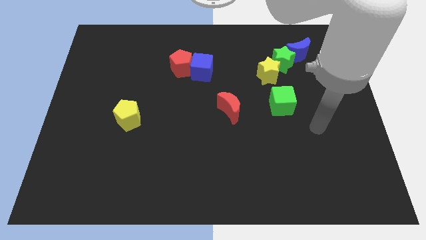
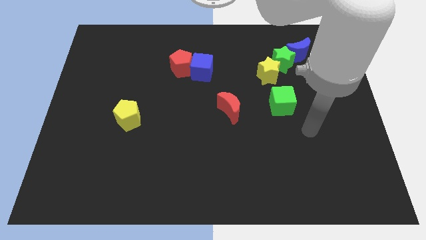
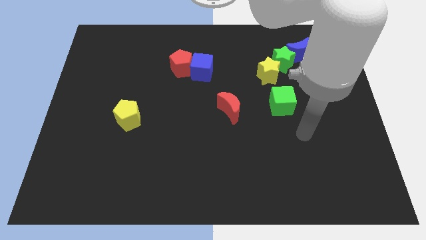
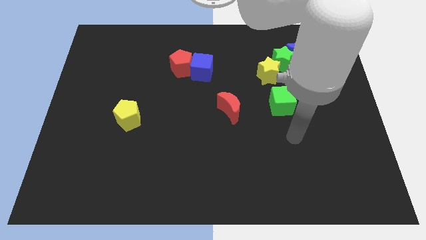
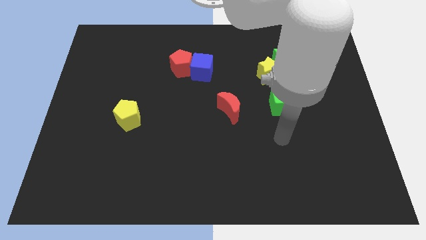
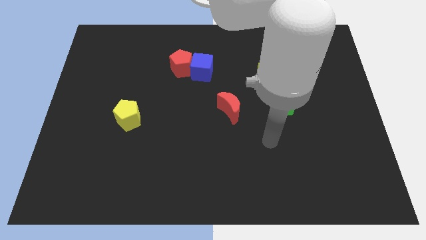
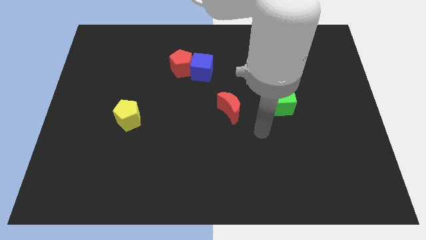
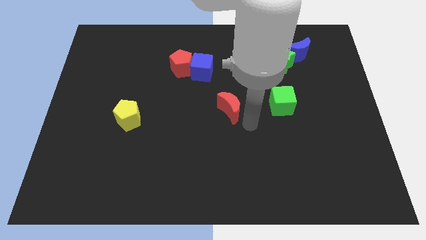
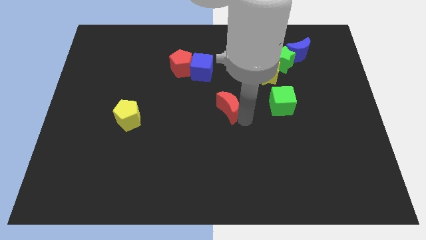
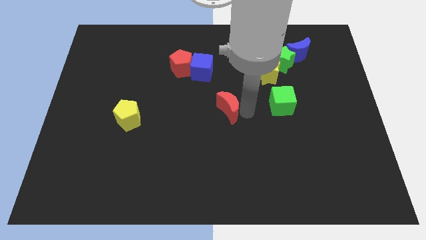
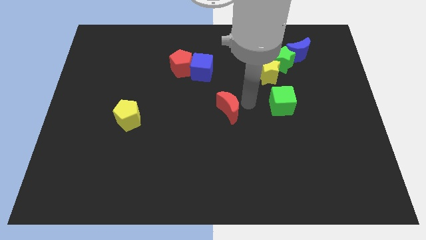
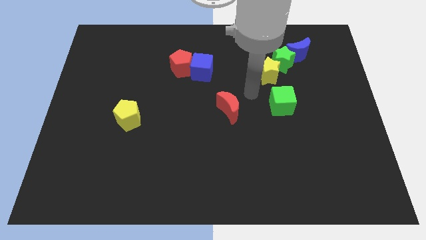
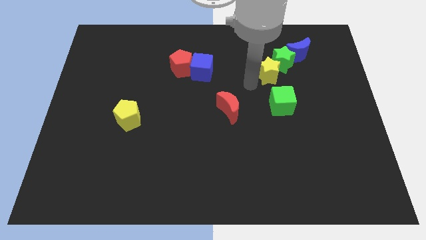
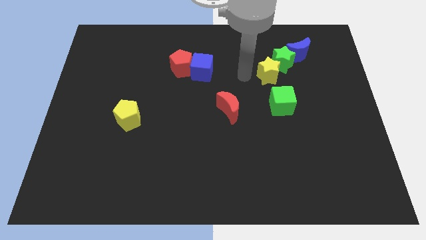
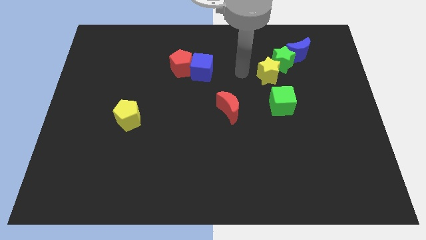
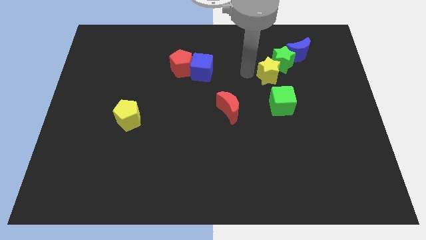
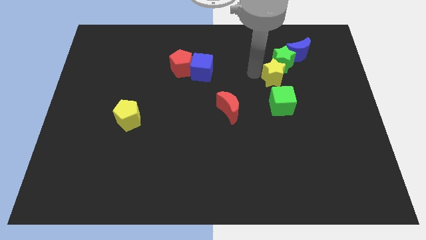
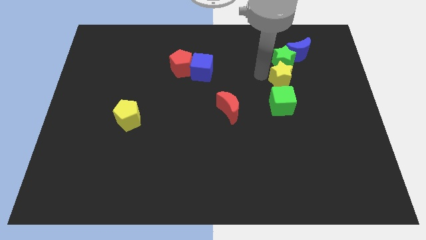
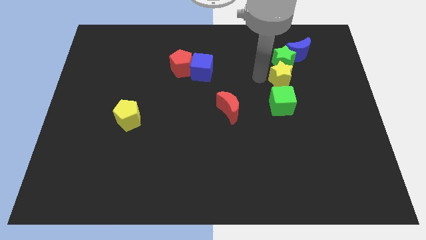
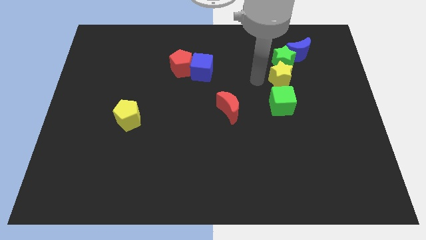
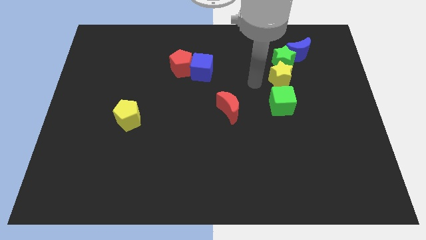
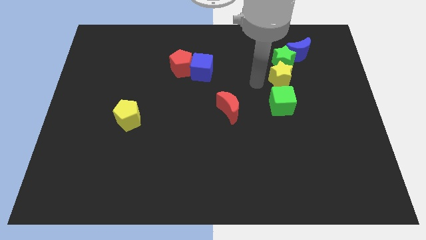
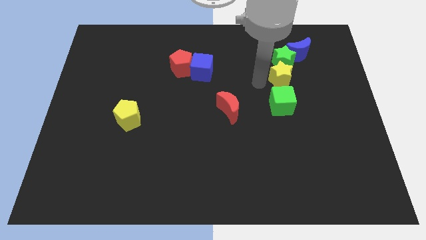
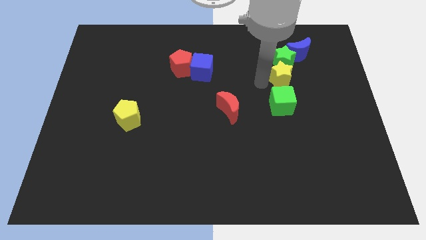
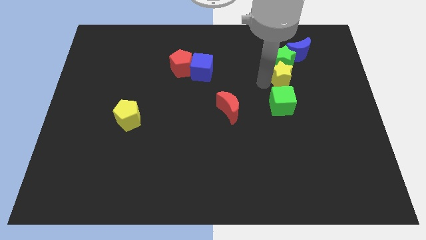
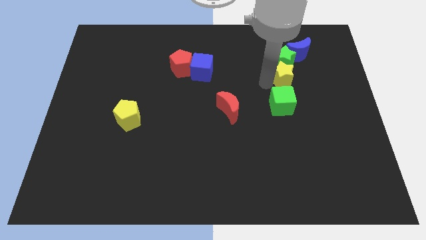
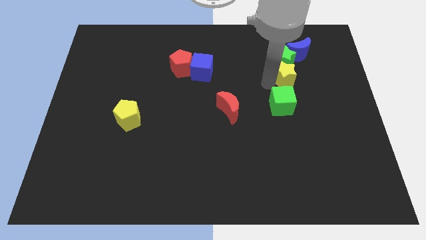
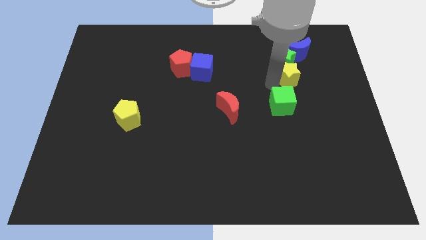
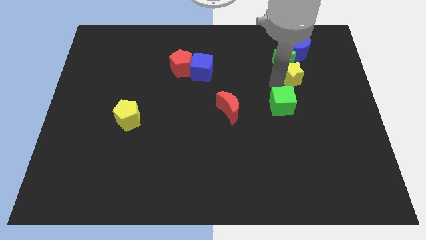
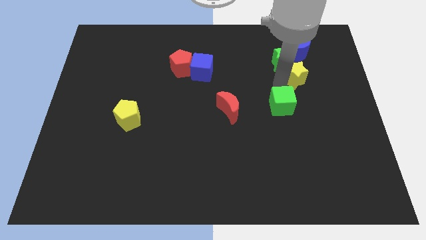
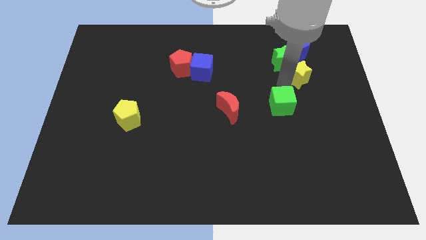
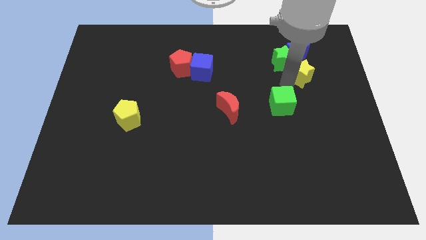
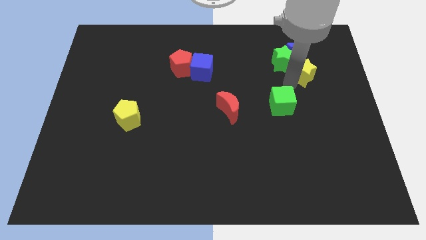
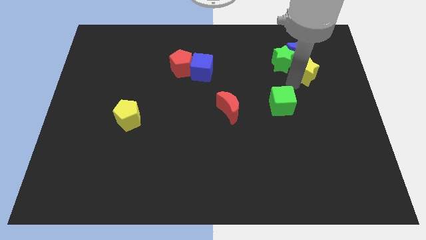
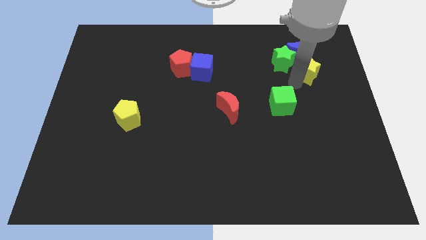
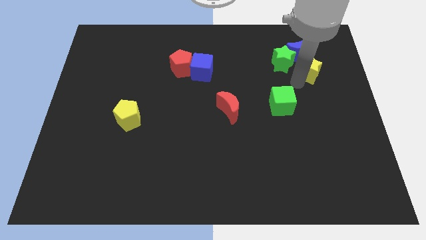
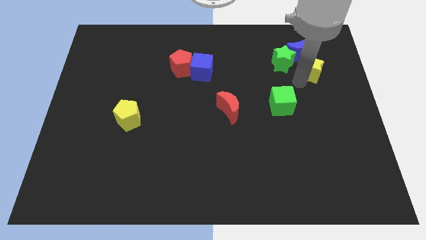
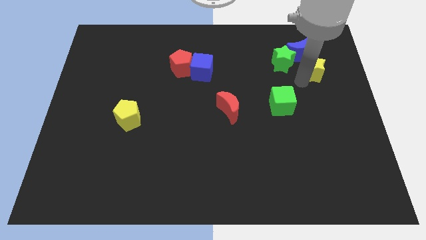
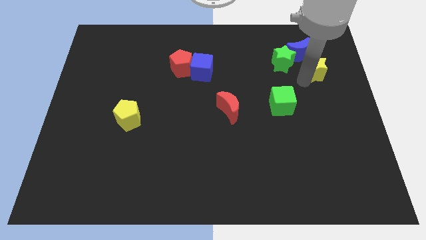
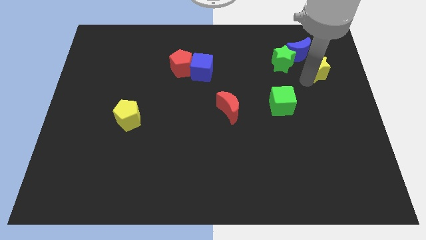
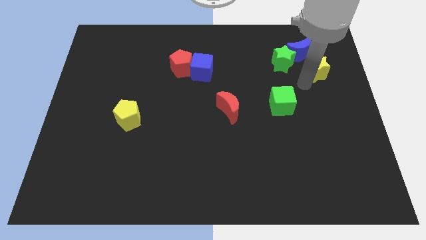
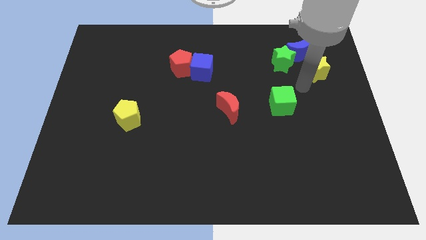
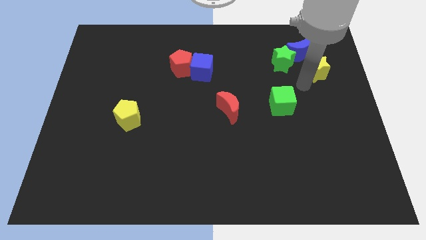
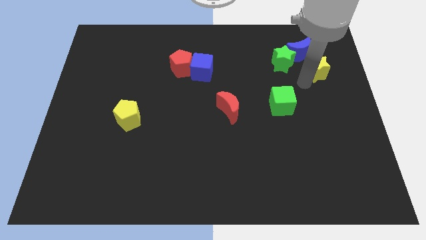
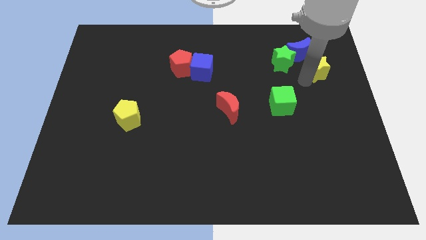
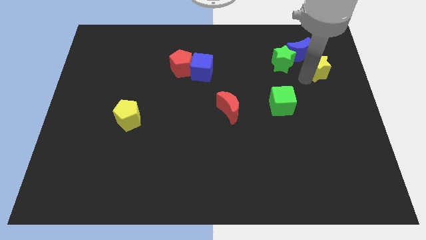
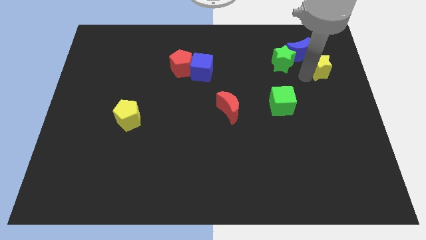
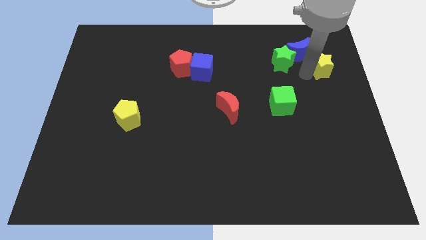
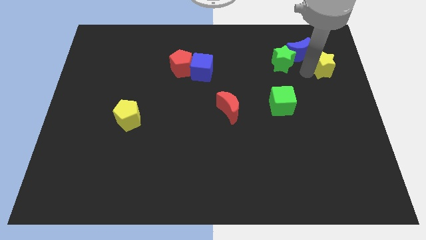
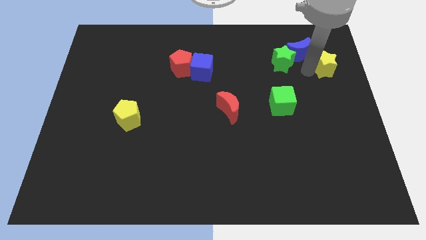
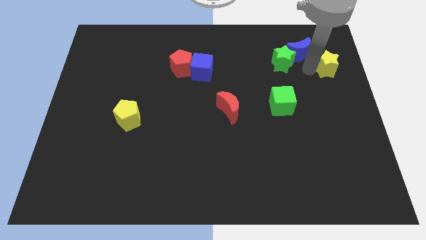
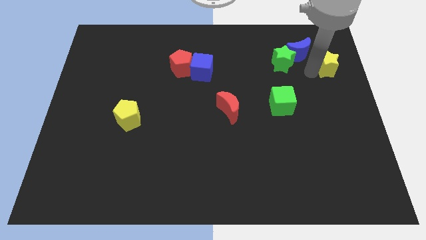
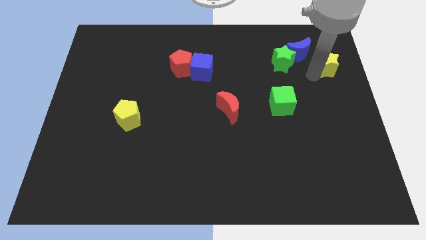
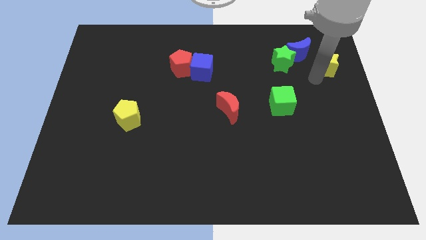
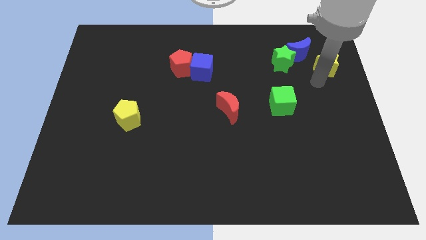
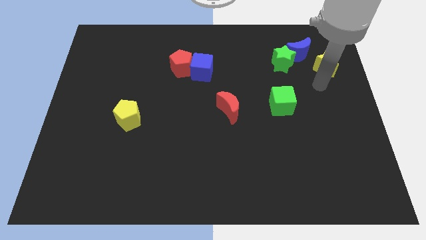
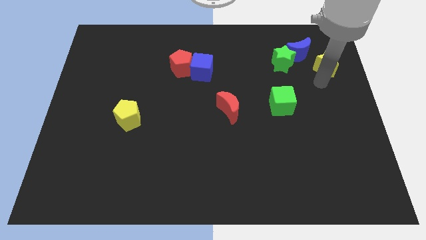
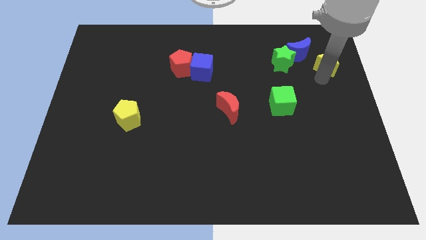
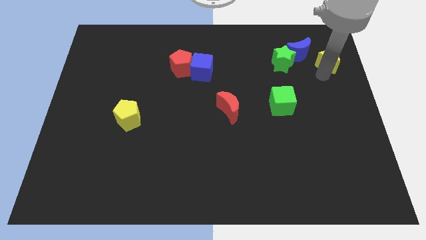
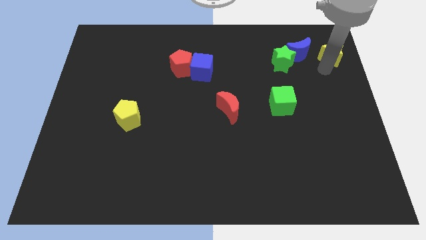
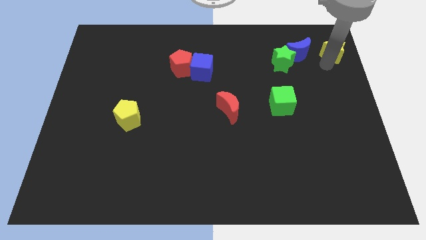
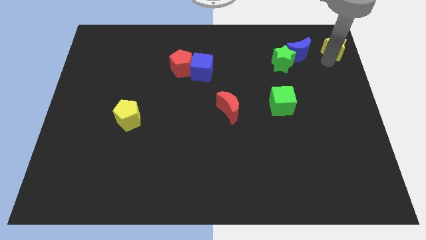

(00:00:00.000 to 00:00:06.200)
push the yellow star to the top right

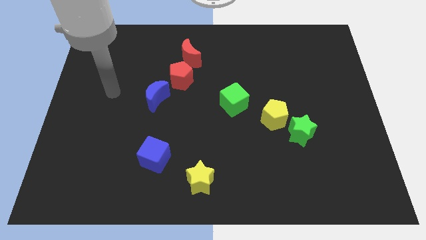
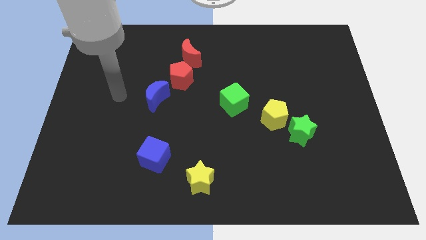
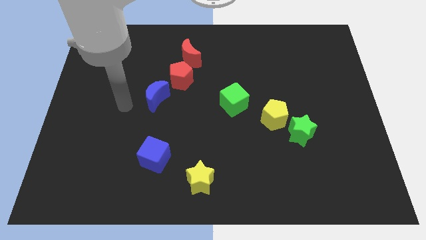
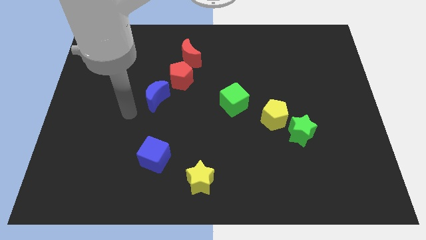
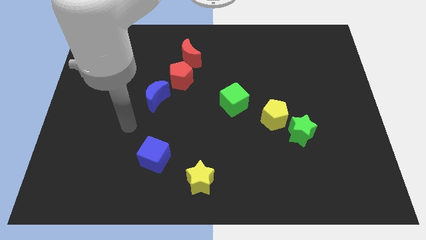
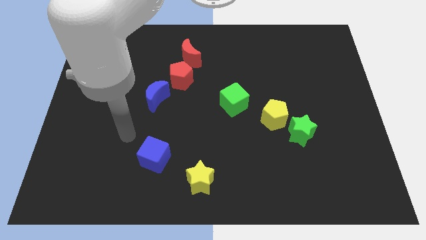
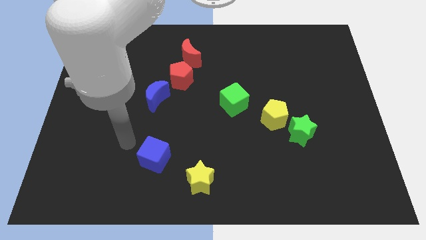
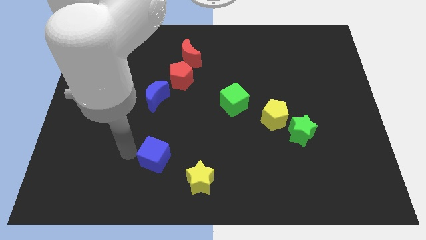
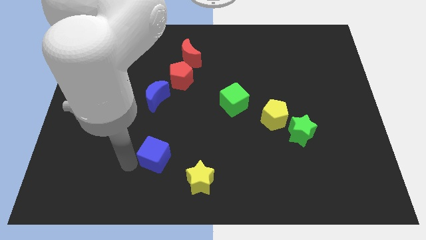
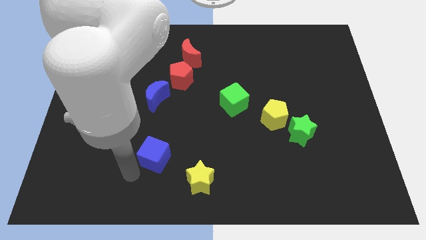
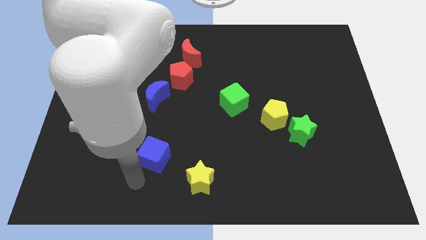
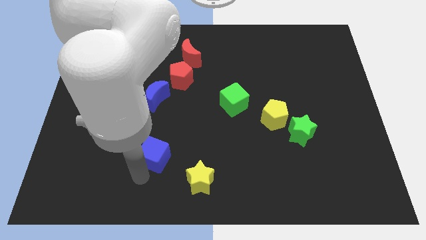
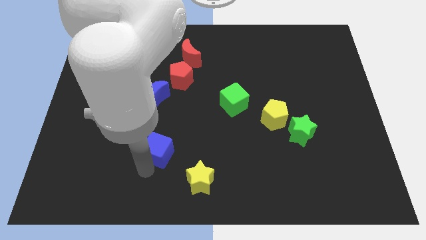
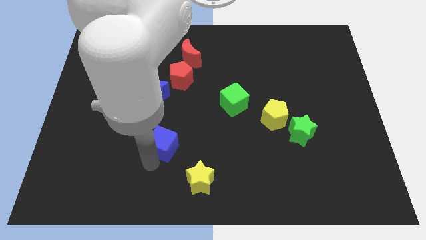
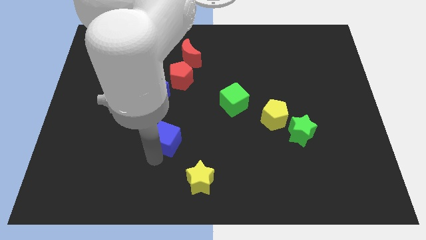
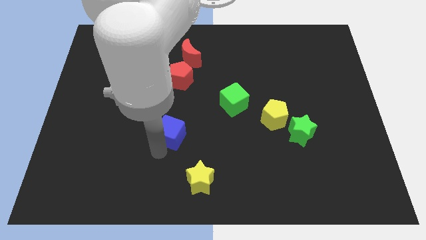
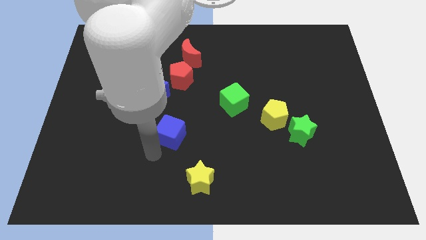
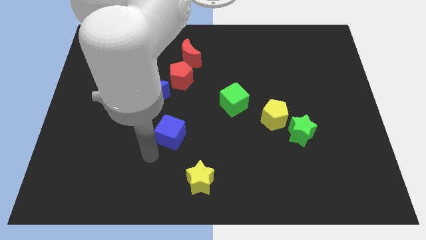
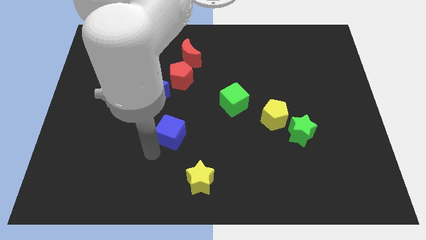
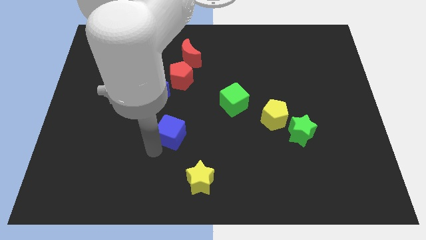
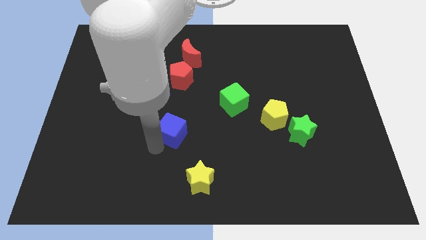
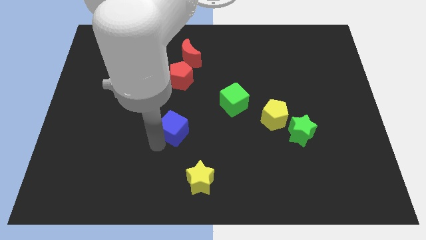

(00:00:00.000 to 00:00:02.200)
move the blue cube to the middle of the board
